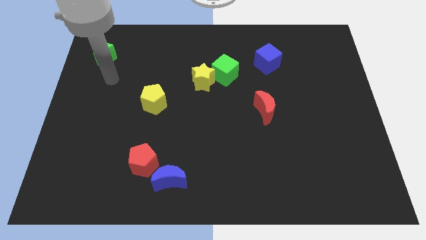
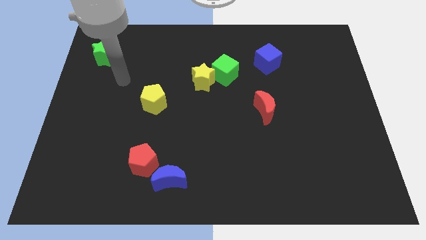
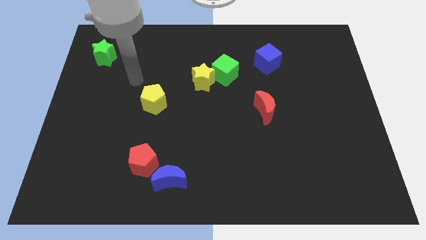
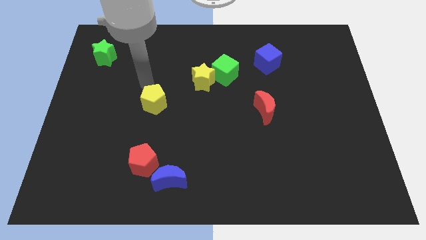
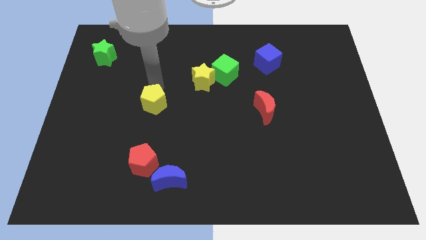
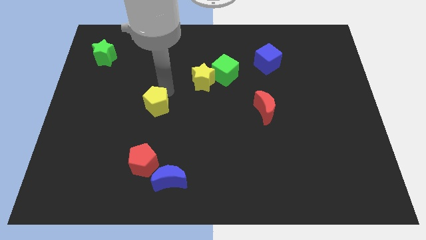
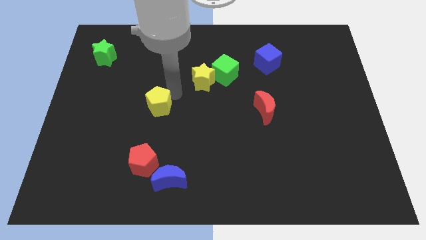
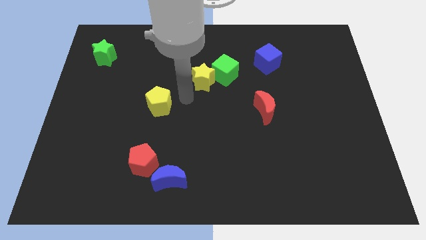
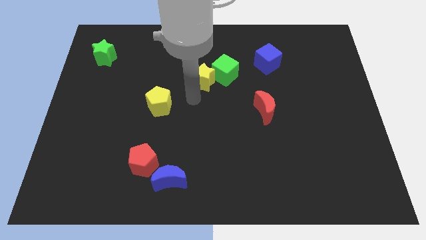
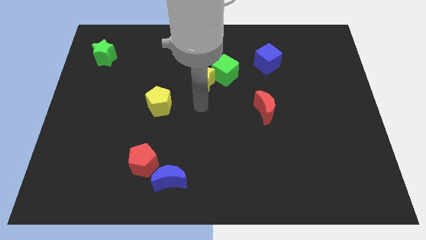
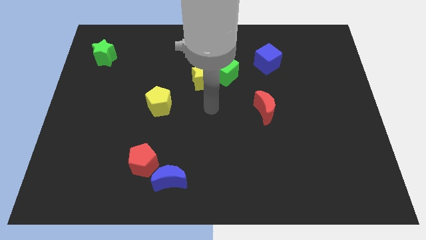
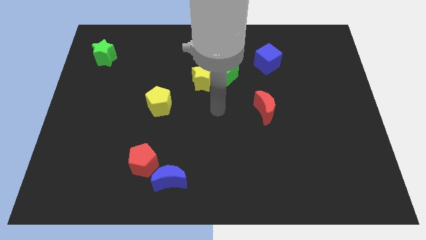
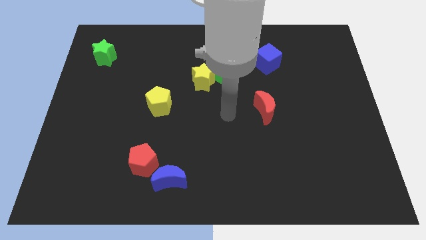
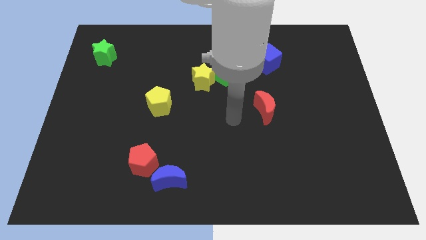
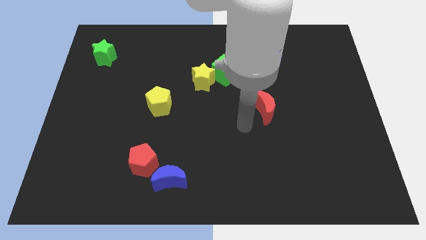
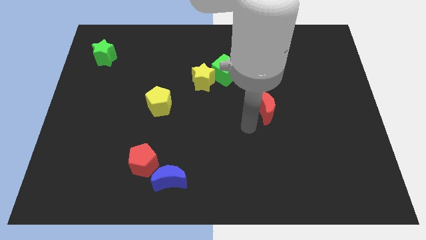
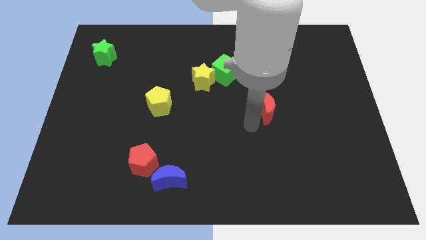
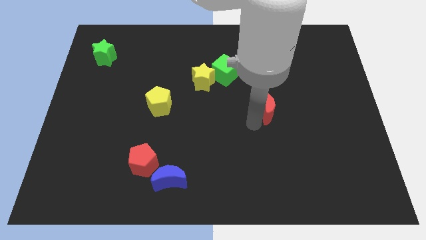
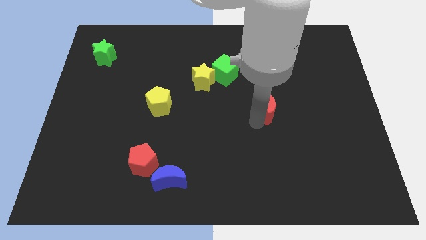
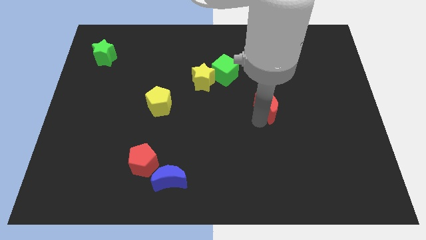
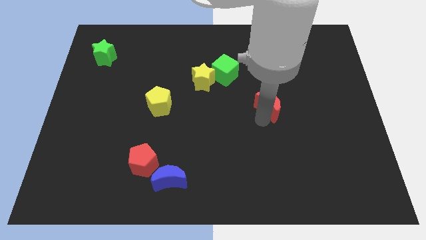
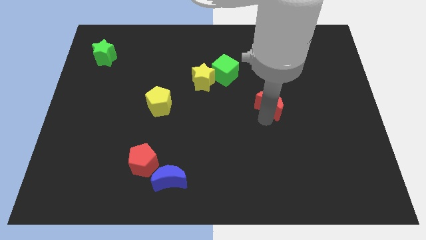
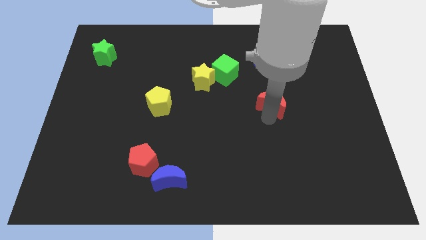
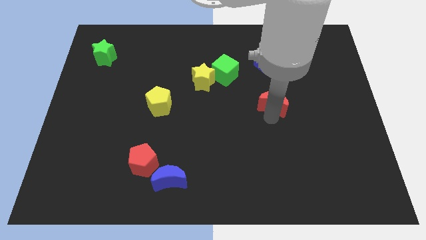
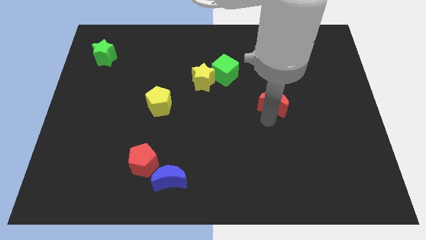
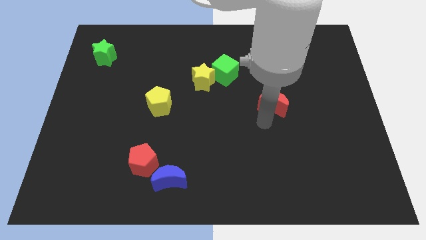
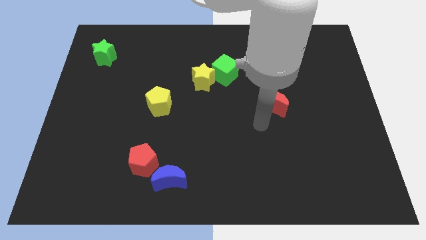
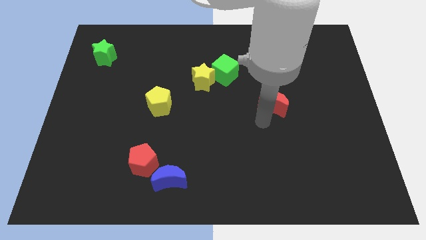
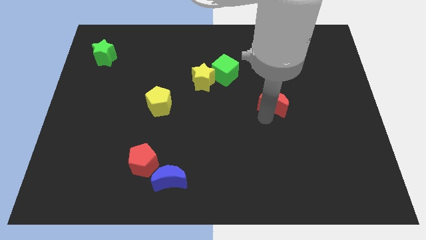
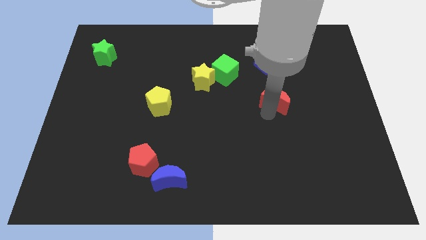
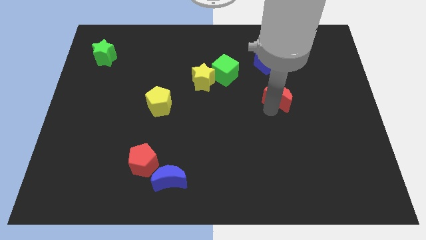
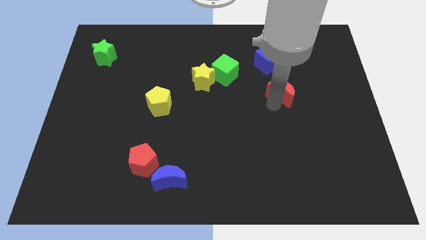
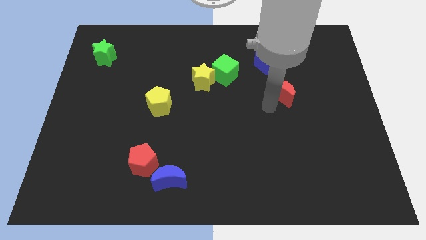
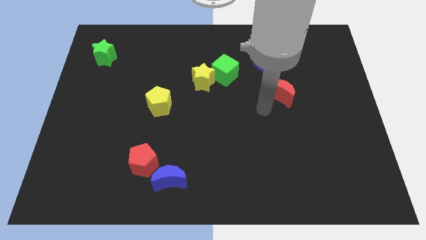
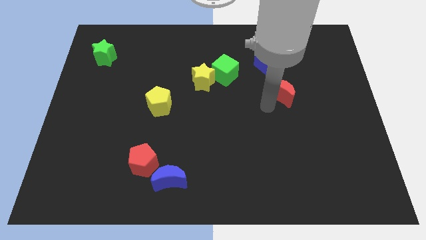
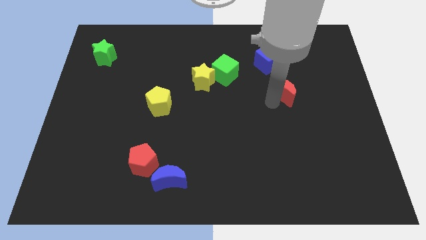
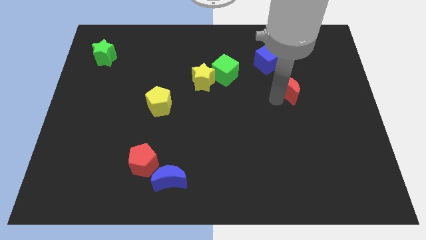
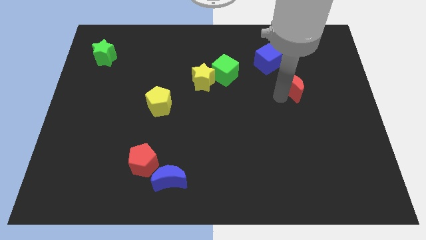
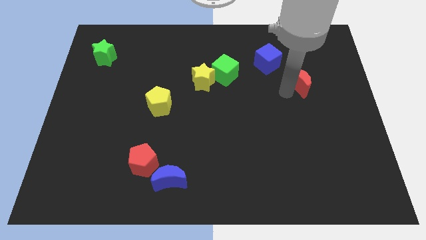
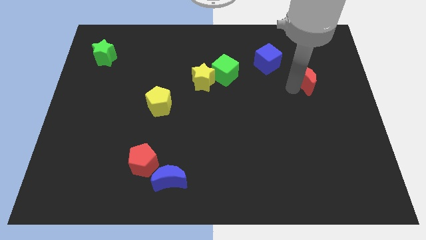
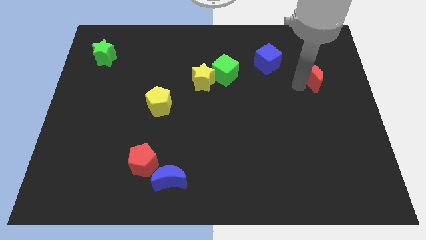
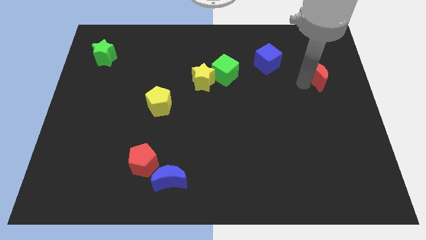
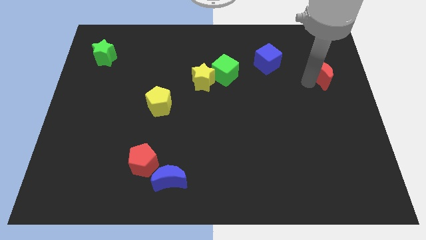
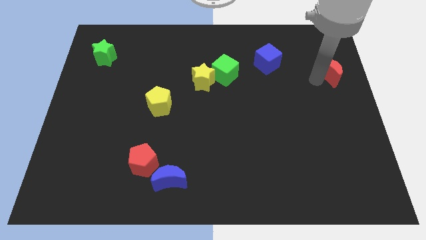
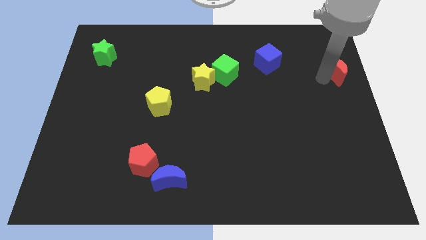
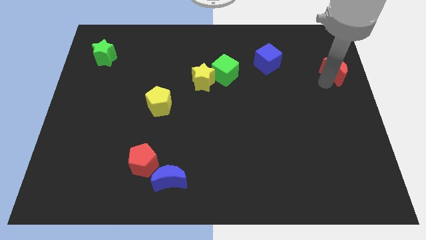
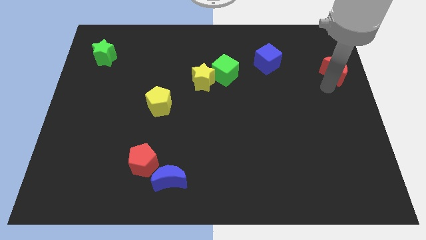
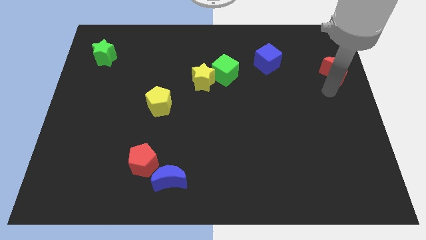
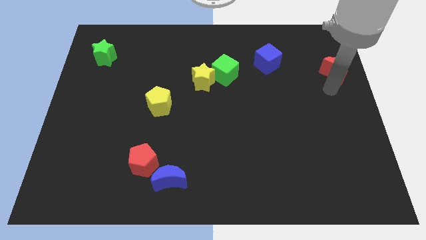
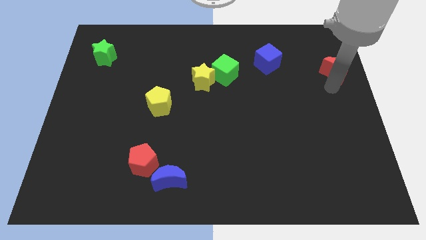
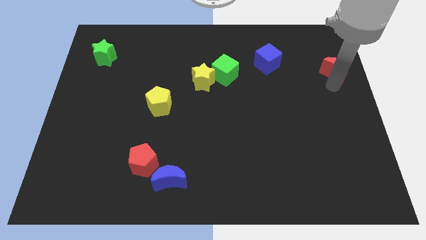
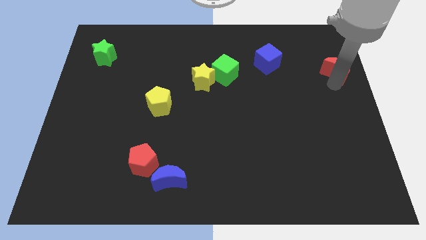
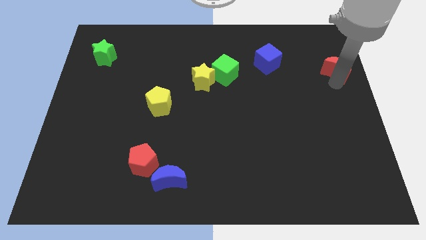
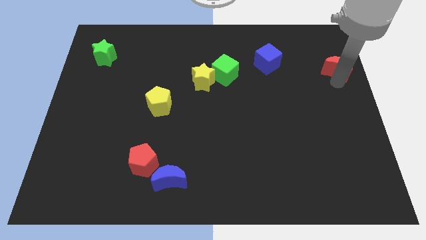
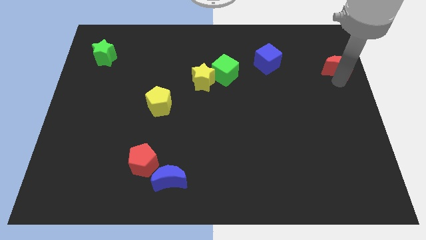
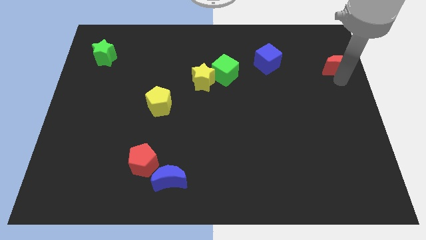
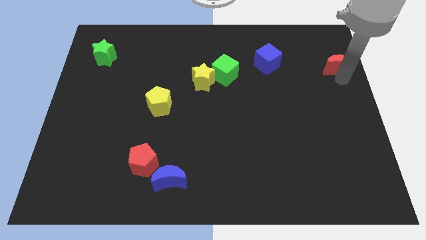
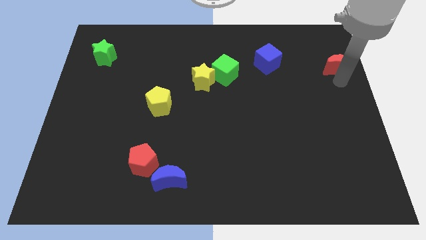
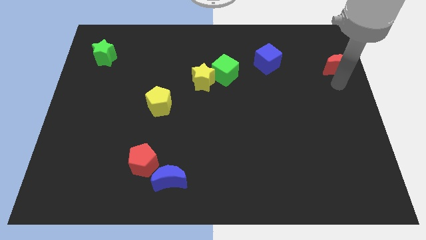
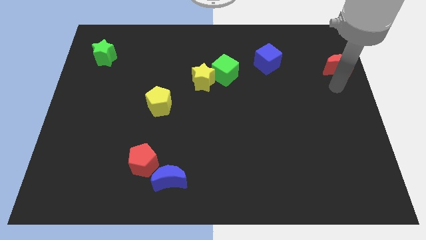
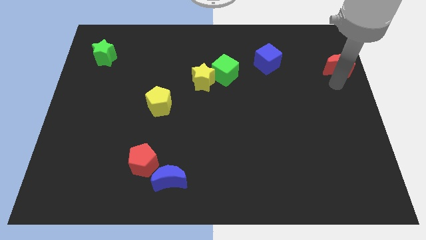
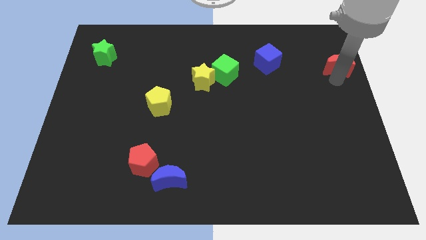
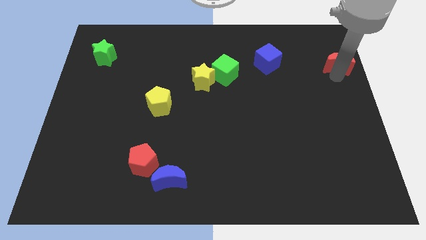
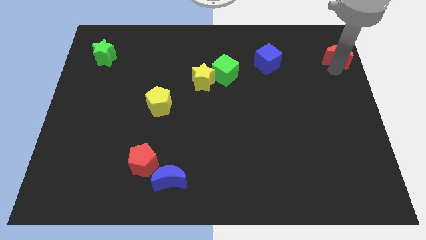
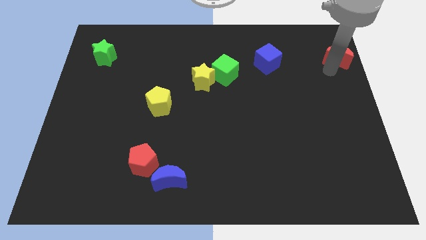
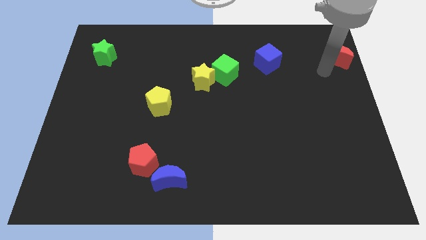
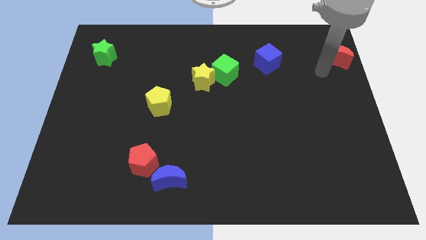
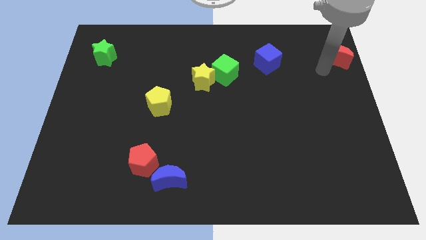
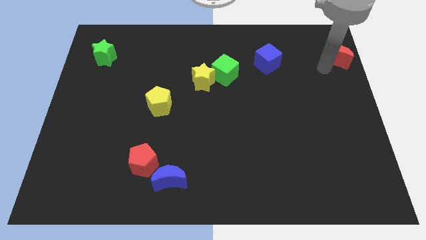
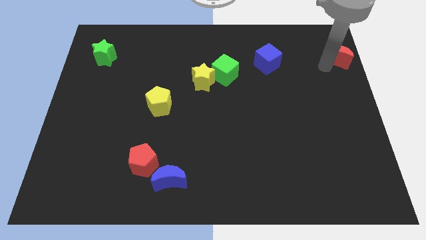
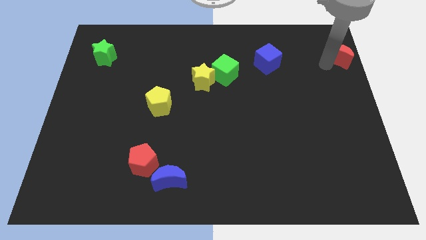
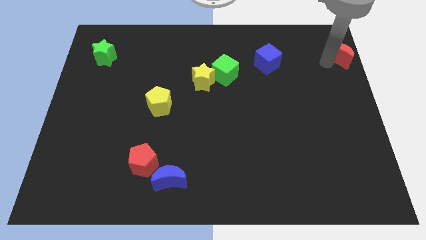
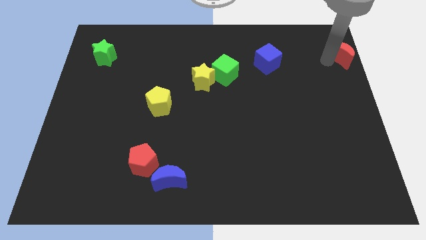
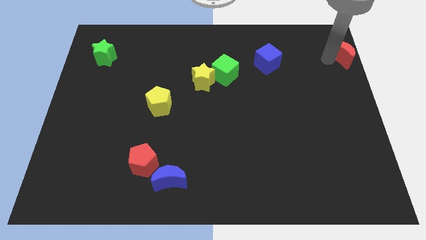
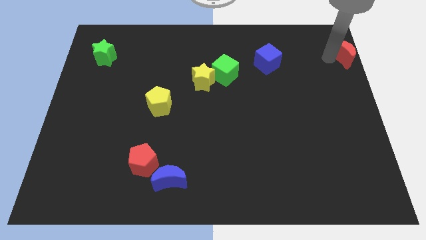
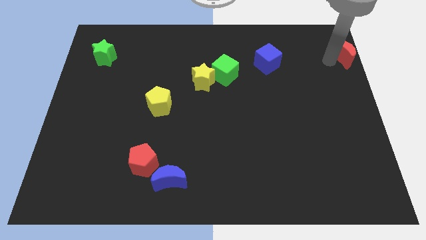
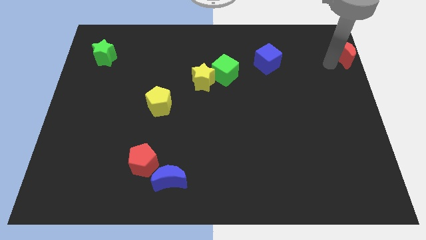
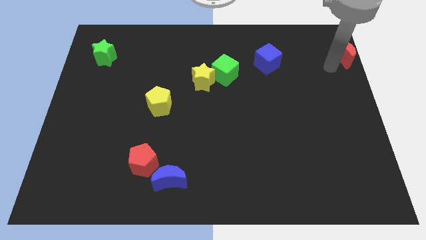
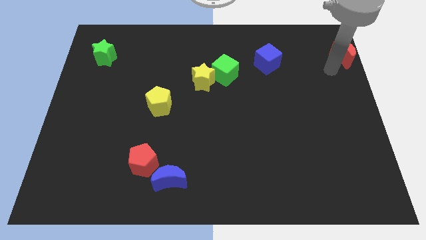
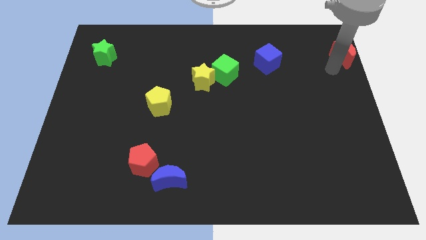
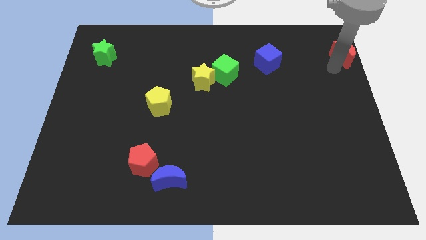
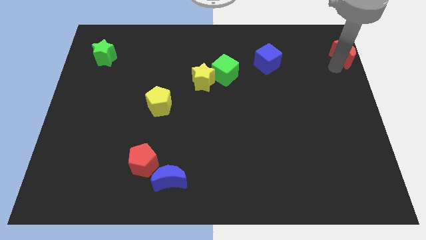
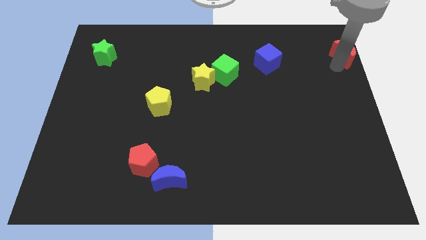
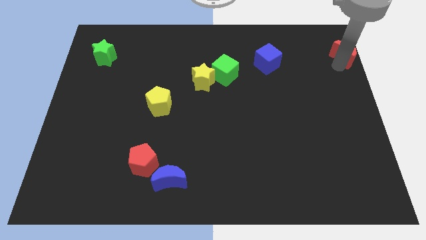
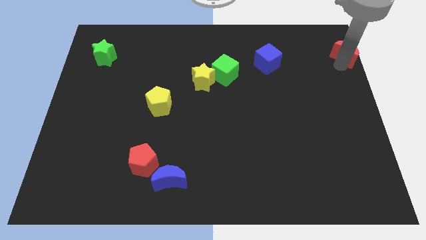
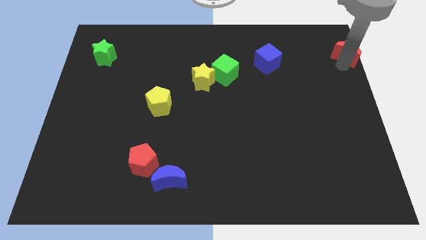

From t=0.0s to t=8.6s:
slide the red moon to the top right of the board
